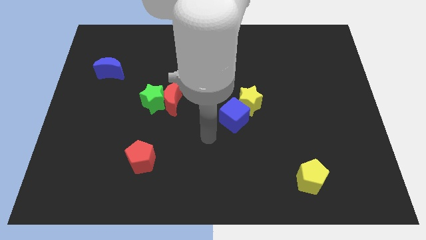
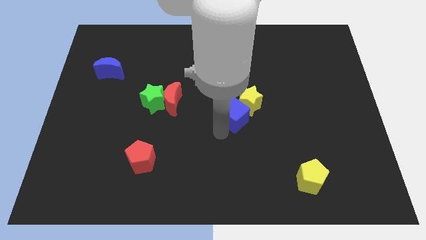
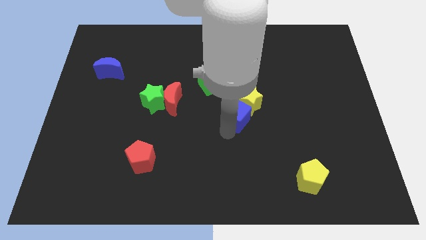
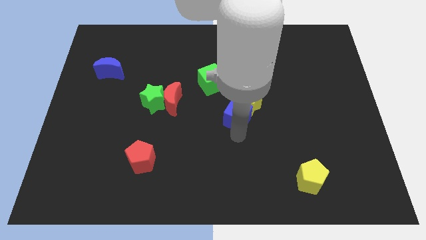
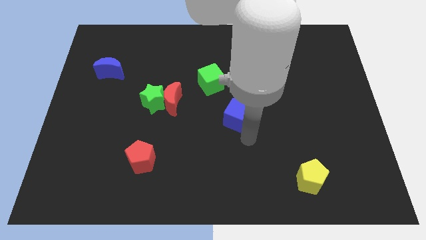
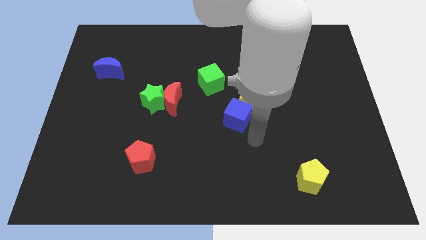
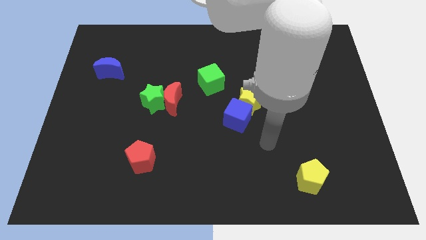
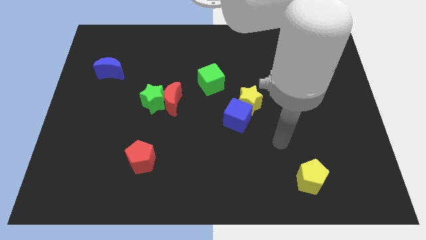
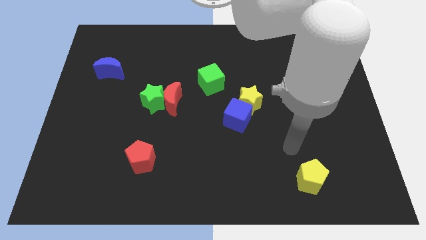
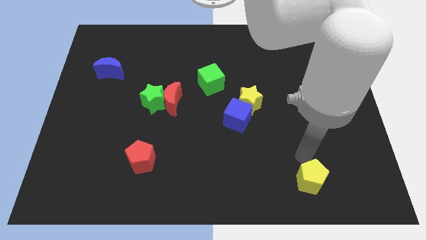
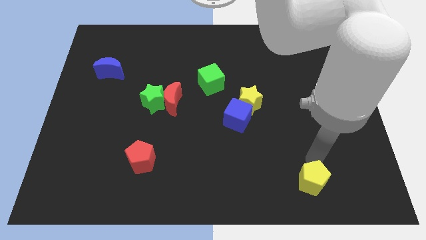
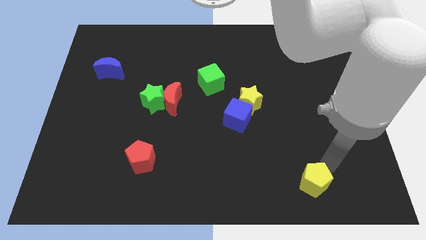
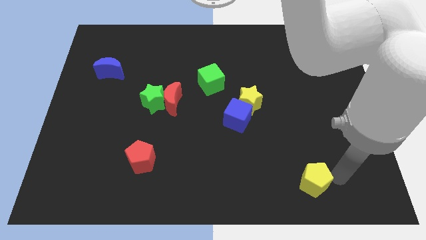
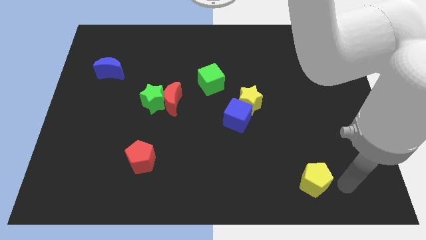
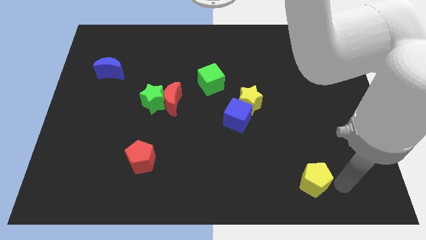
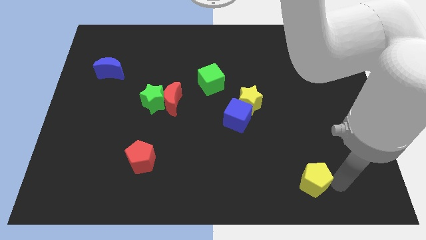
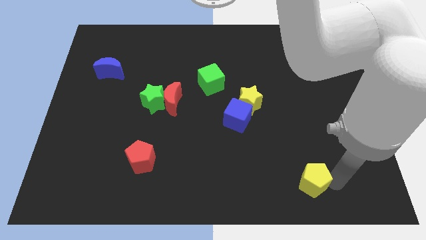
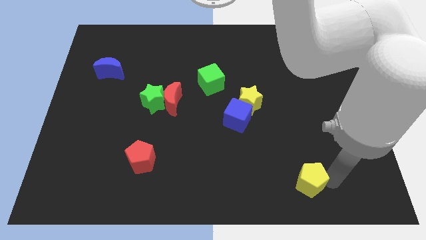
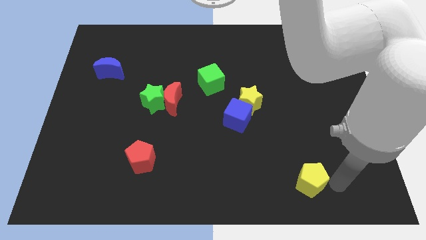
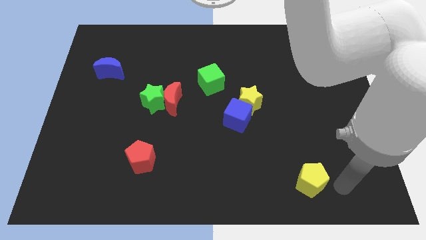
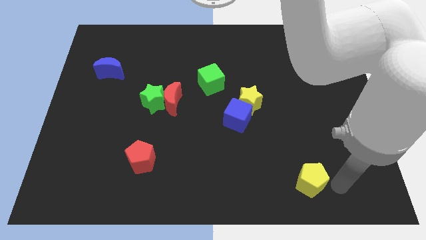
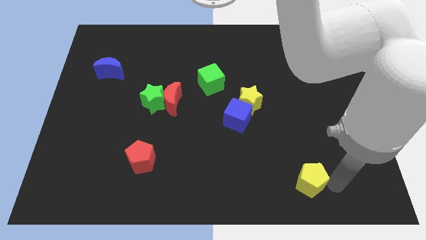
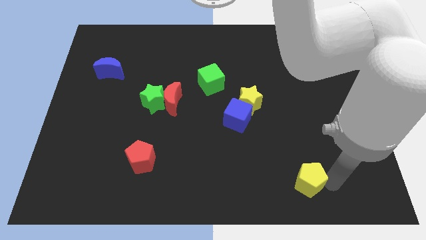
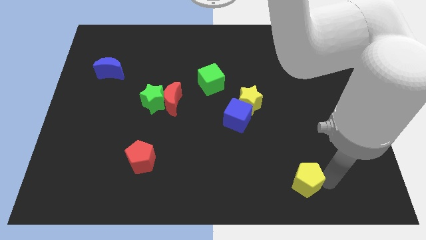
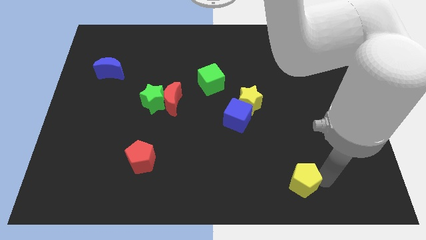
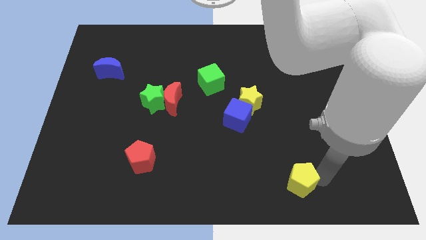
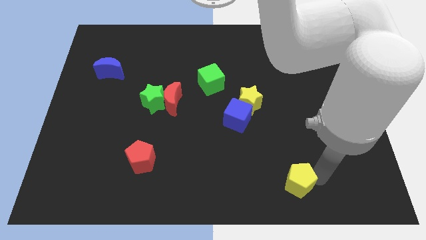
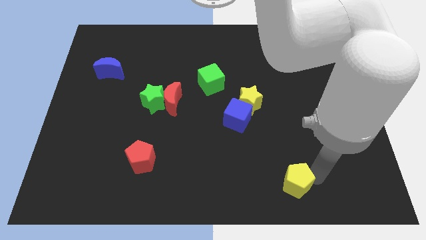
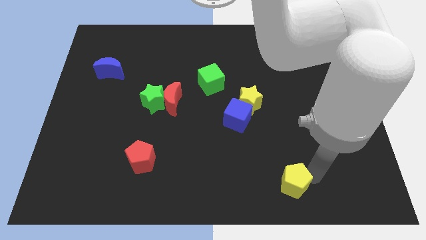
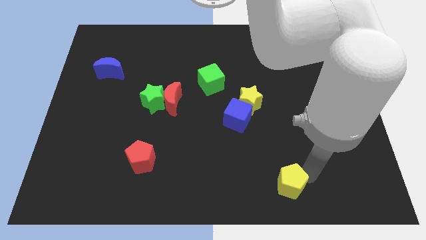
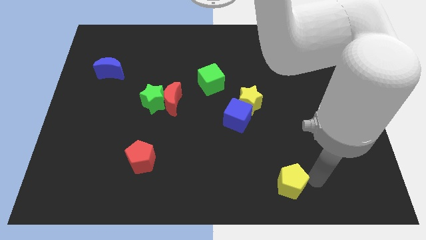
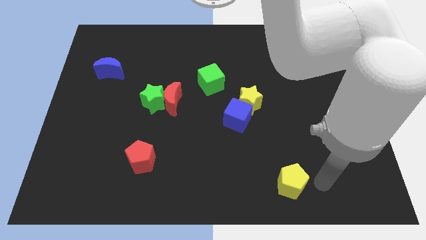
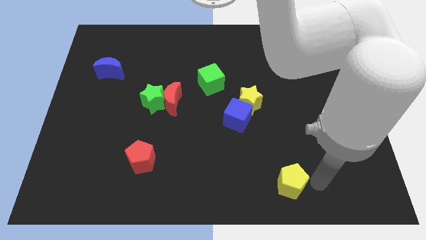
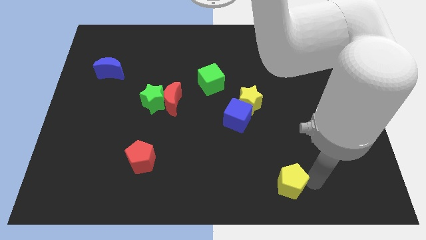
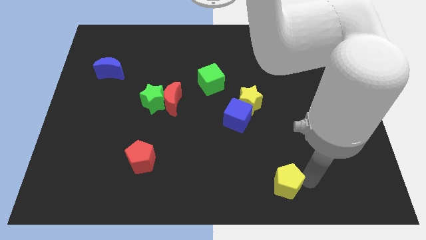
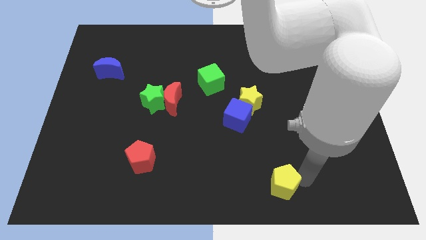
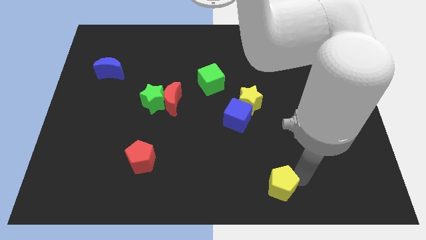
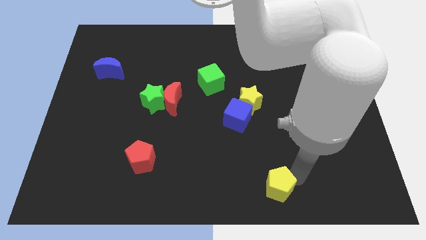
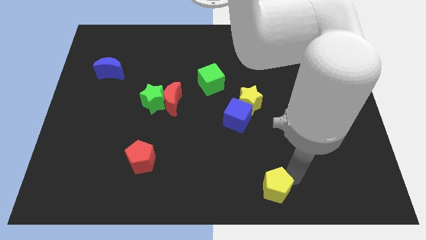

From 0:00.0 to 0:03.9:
slide the yellow pentagon to the left slightly

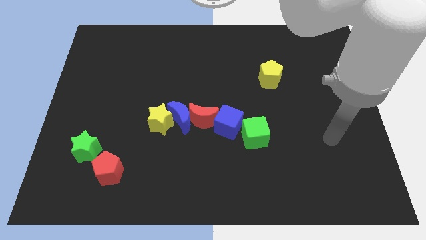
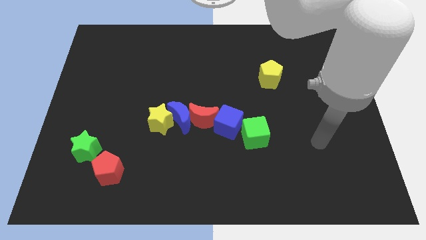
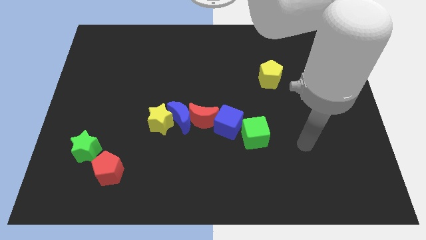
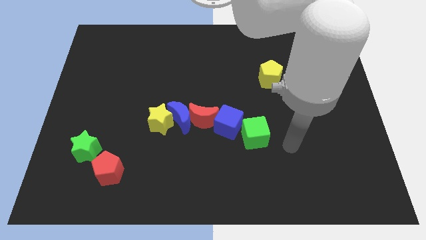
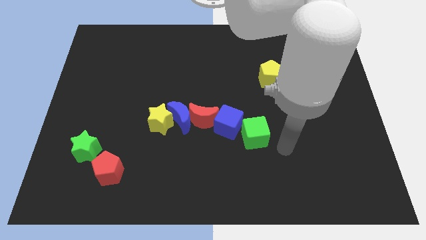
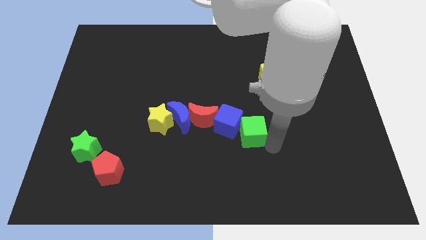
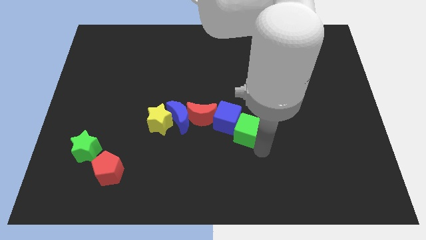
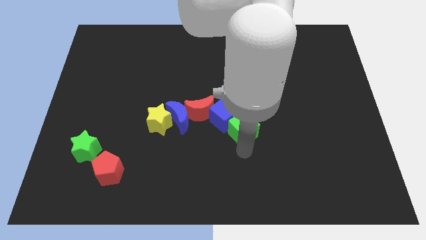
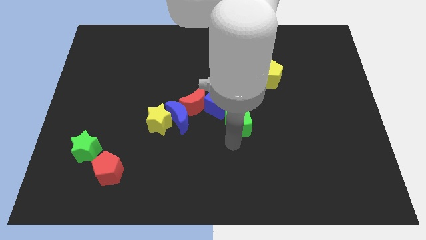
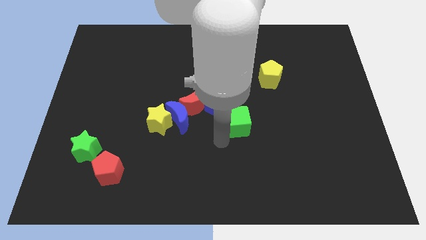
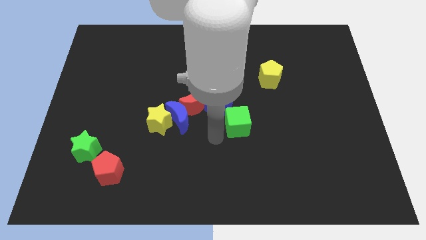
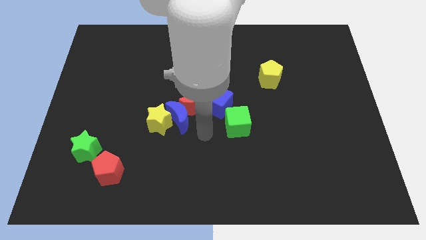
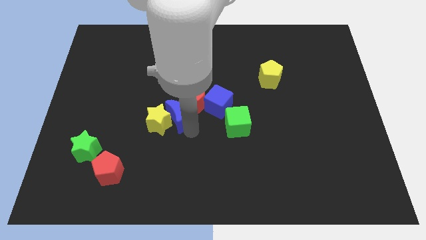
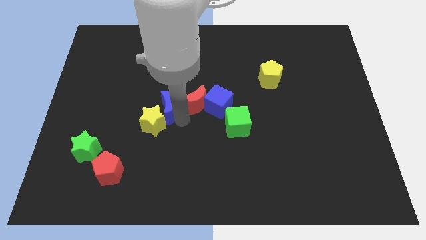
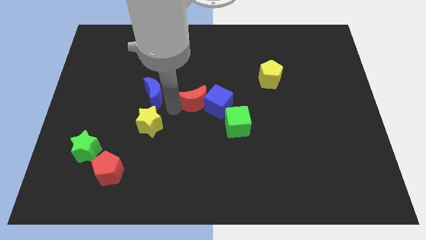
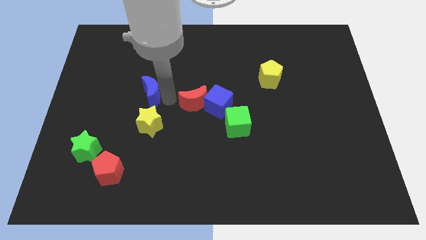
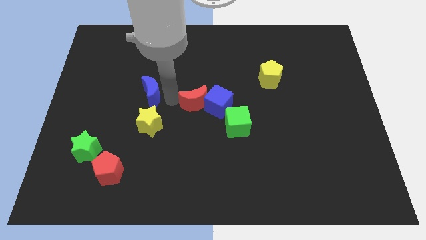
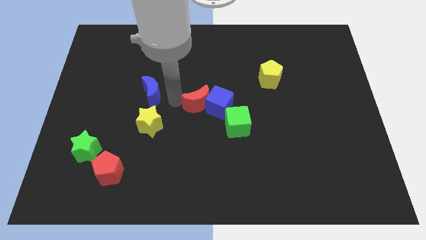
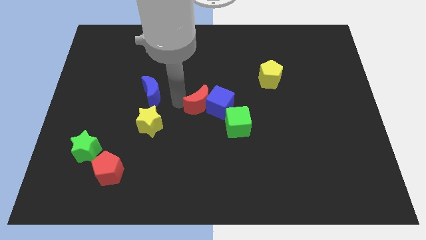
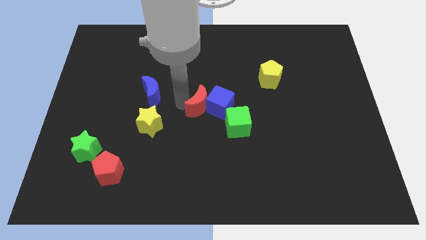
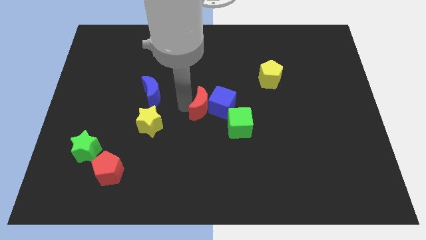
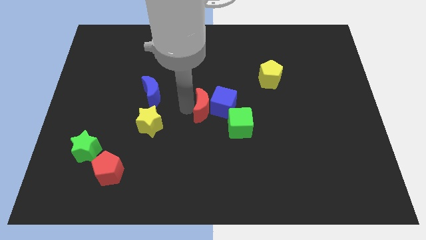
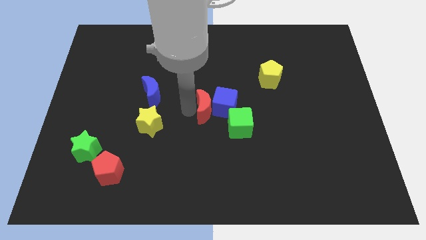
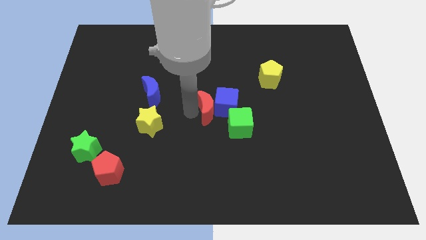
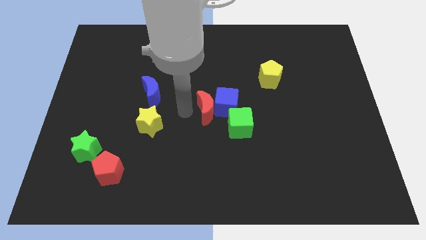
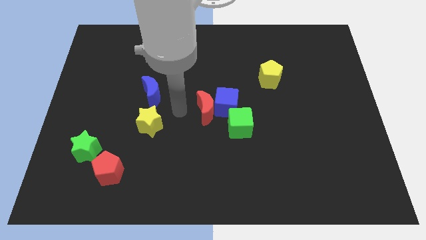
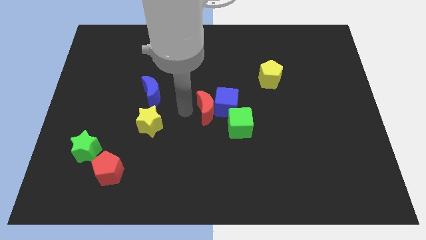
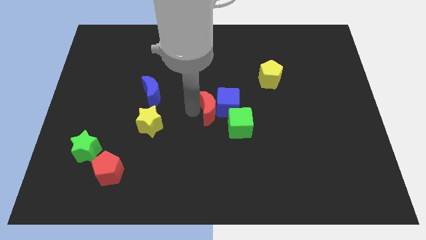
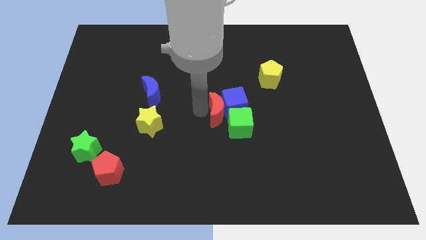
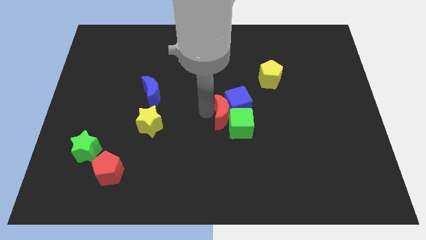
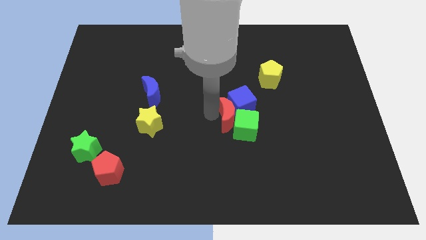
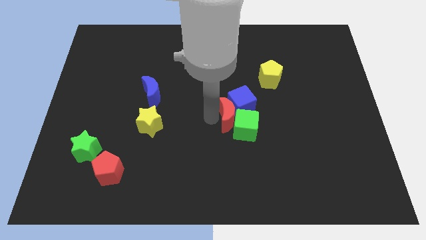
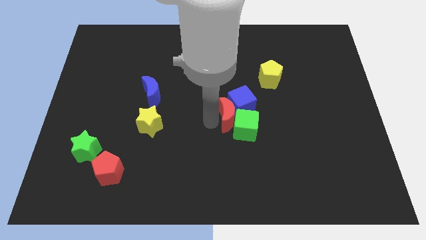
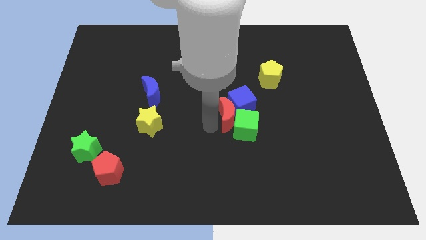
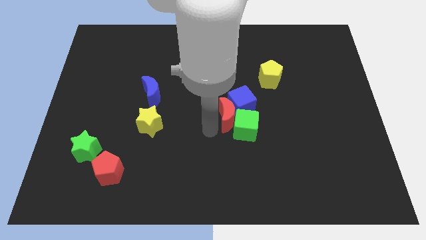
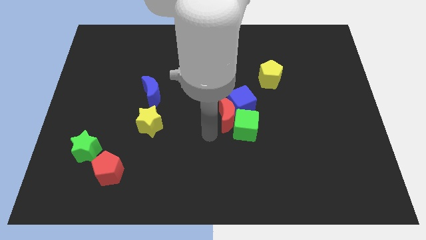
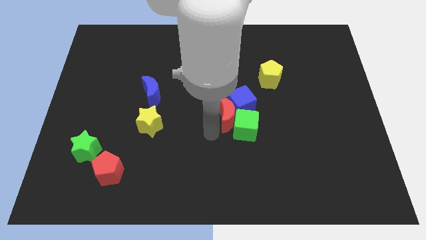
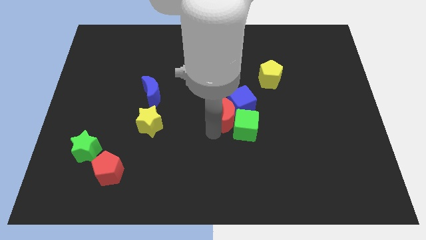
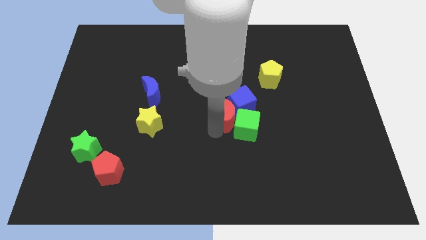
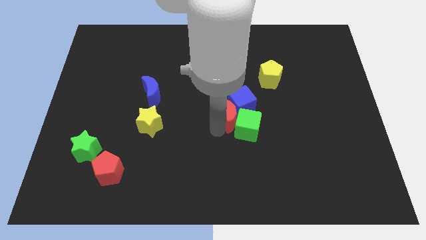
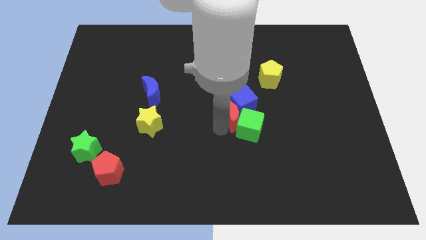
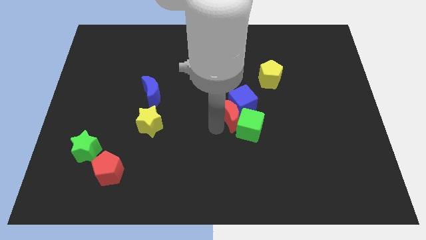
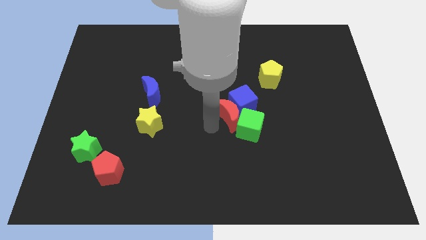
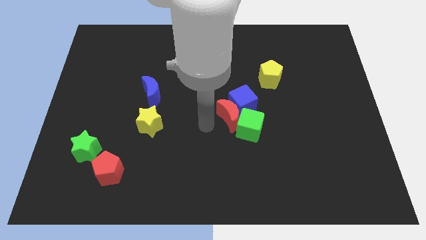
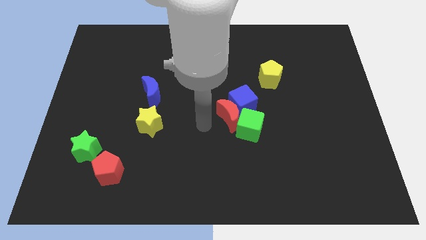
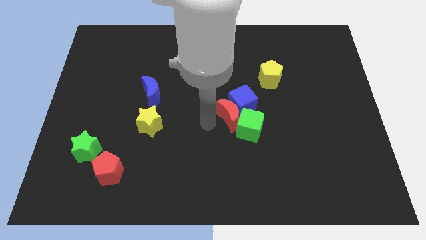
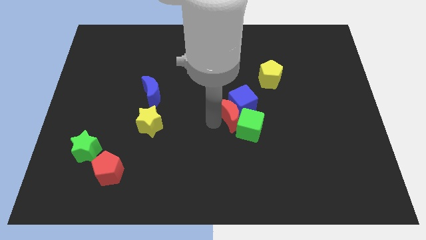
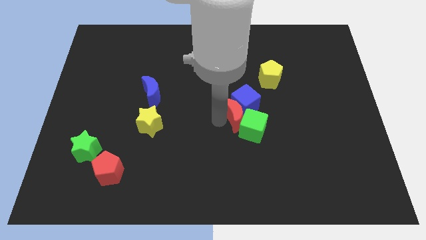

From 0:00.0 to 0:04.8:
slide the red moon to the right somewhat
